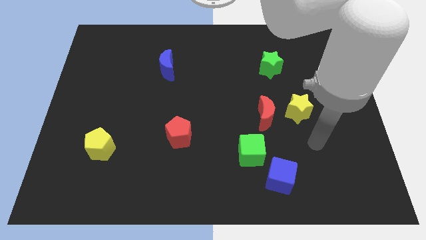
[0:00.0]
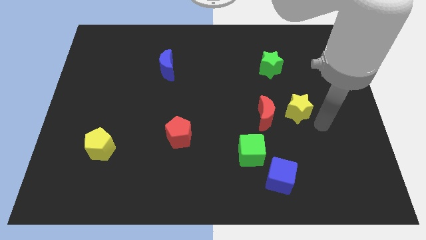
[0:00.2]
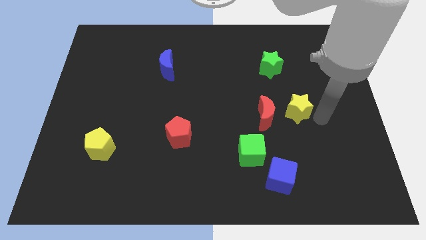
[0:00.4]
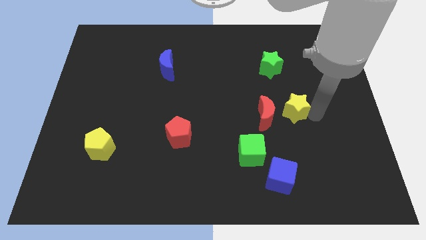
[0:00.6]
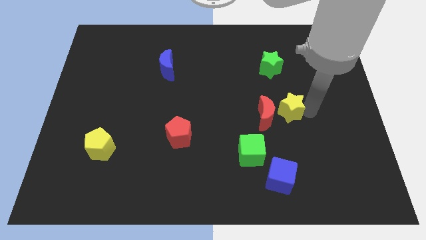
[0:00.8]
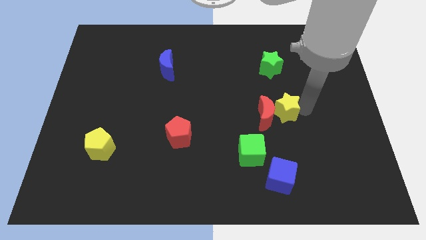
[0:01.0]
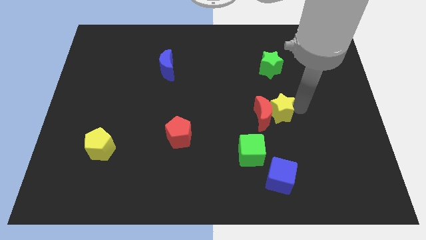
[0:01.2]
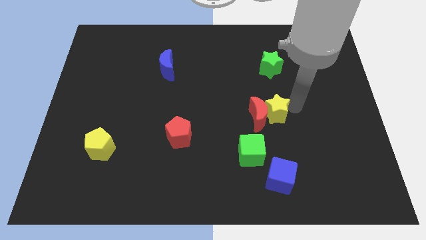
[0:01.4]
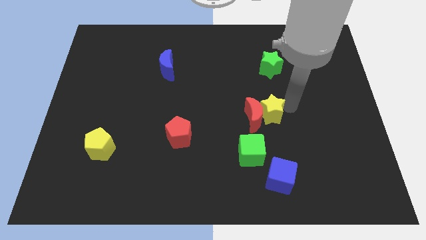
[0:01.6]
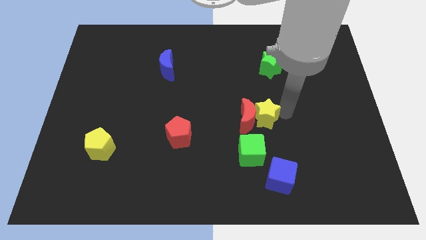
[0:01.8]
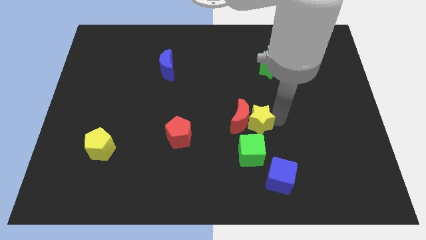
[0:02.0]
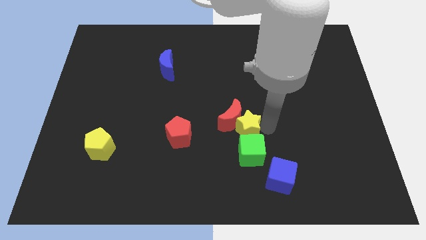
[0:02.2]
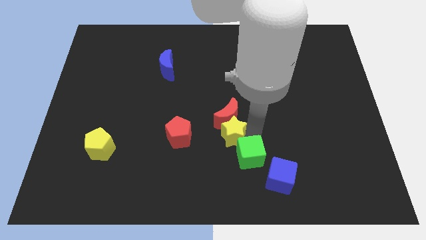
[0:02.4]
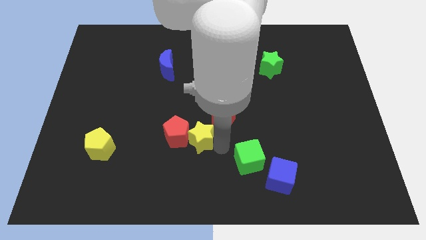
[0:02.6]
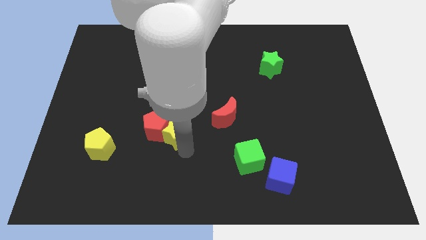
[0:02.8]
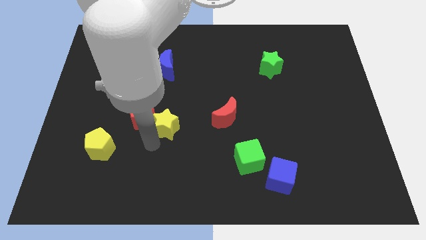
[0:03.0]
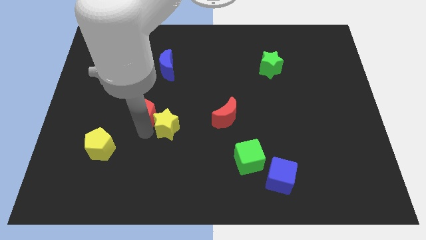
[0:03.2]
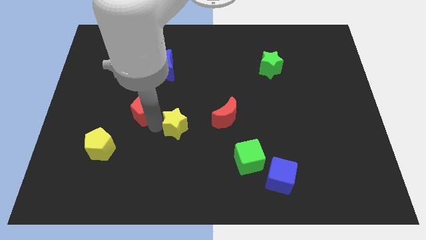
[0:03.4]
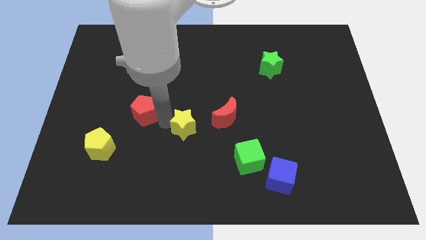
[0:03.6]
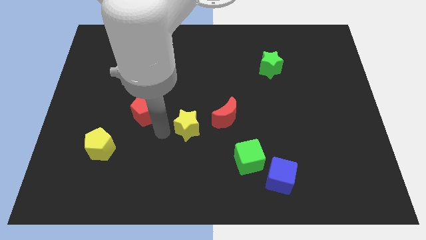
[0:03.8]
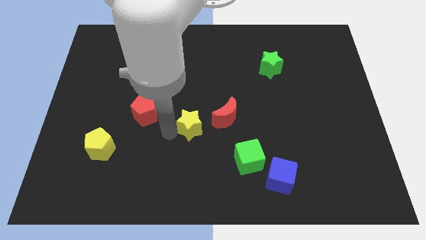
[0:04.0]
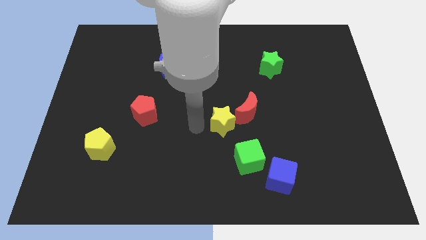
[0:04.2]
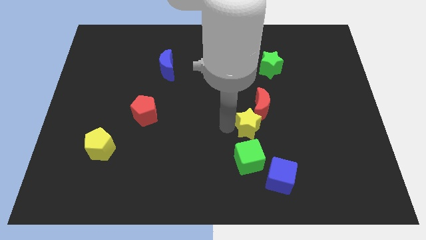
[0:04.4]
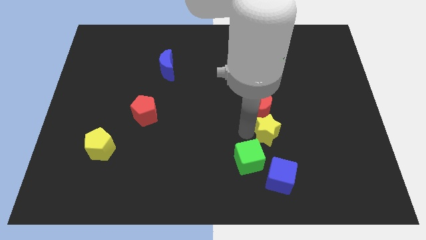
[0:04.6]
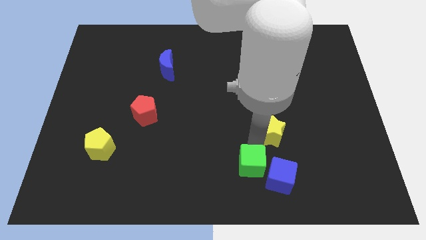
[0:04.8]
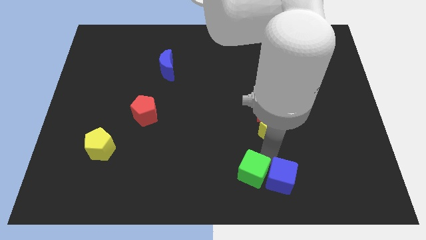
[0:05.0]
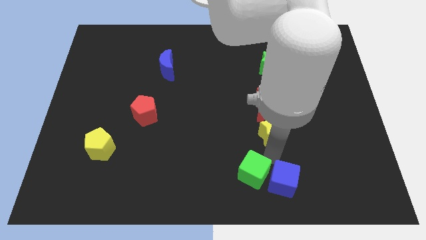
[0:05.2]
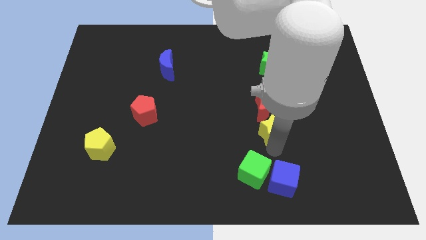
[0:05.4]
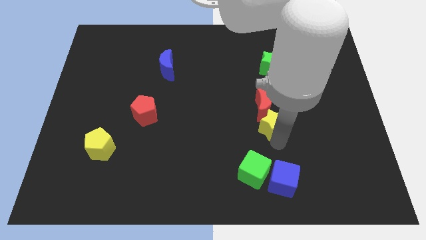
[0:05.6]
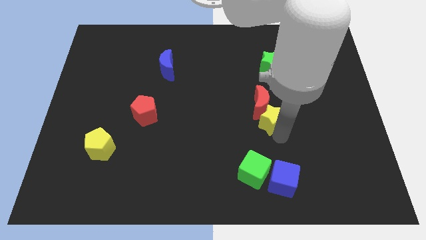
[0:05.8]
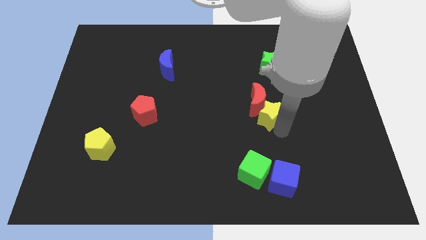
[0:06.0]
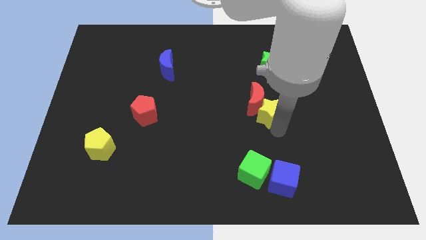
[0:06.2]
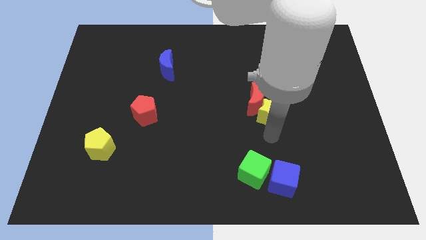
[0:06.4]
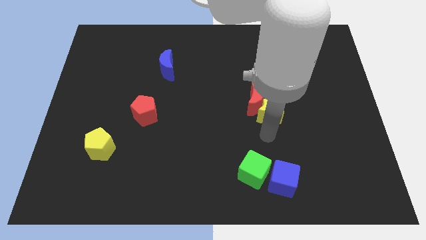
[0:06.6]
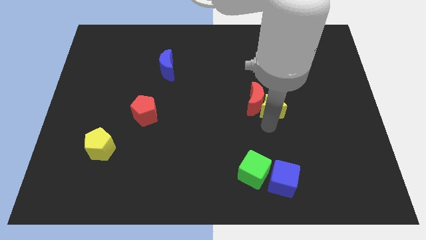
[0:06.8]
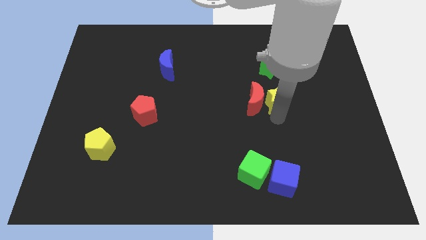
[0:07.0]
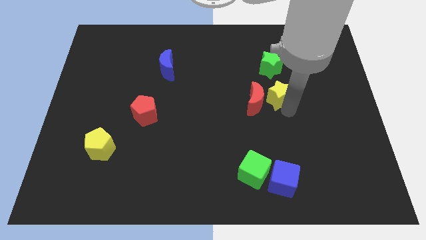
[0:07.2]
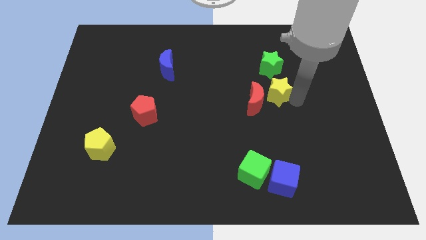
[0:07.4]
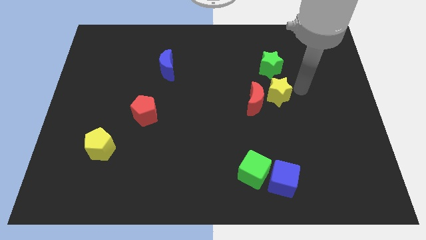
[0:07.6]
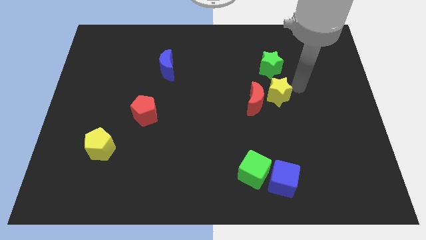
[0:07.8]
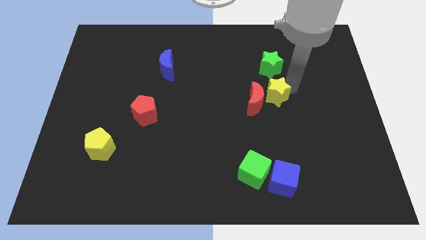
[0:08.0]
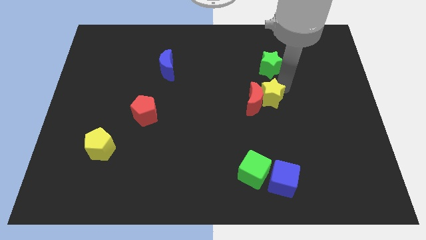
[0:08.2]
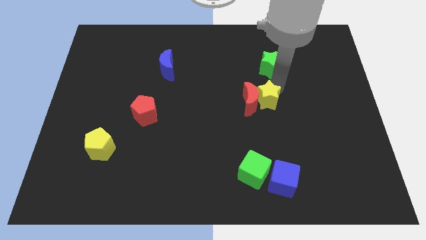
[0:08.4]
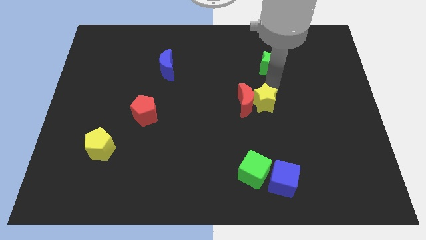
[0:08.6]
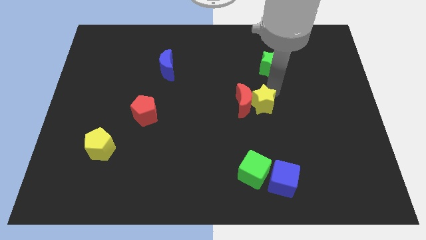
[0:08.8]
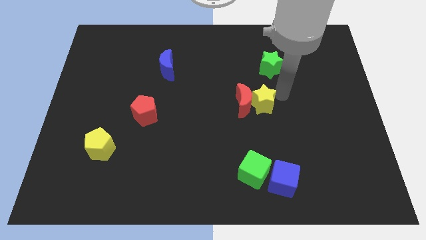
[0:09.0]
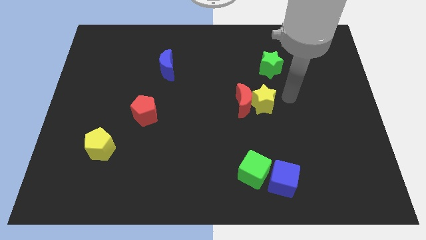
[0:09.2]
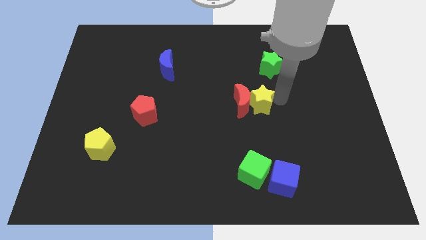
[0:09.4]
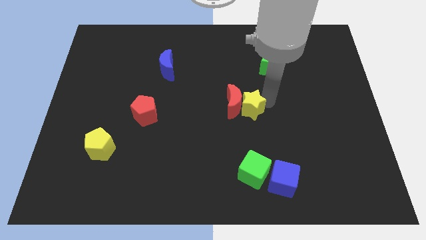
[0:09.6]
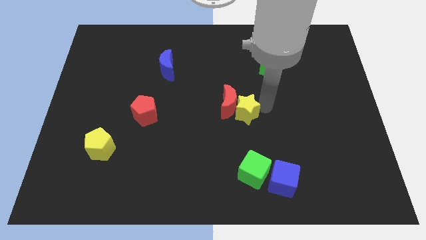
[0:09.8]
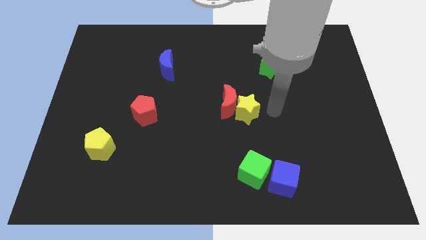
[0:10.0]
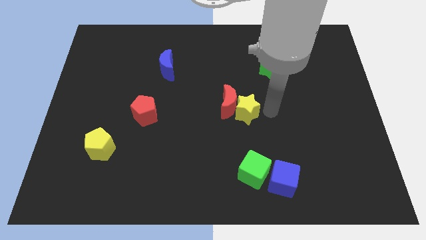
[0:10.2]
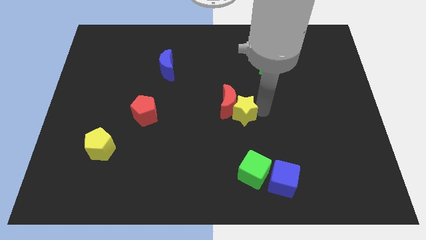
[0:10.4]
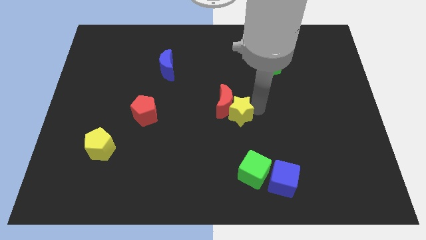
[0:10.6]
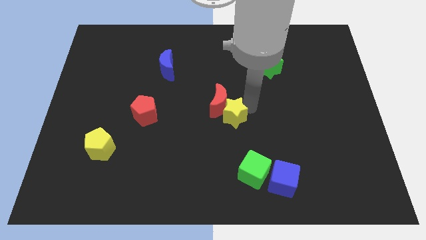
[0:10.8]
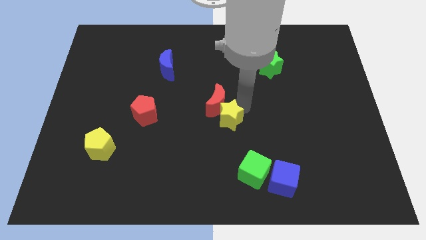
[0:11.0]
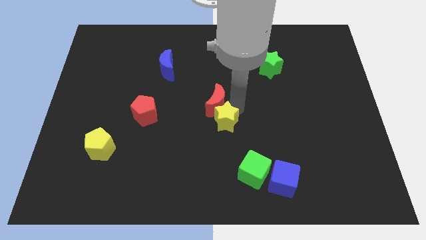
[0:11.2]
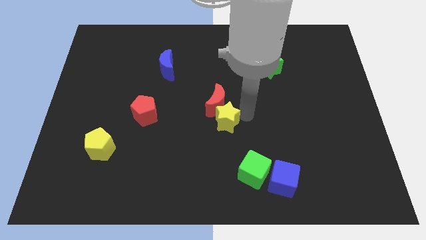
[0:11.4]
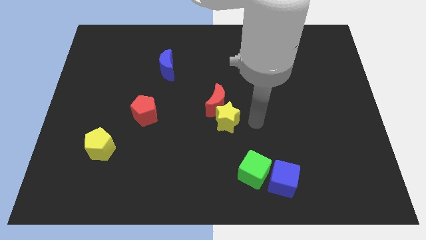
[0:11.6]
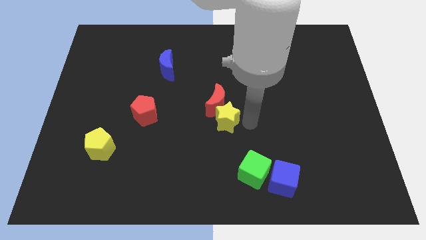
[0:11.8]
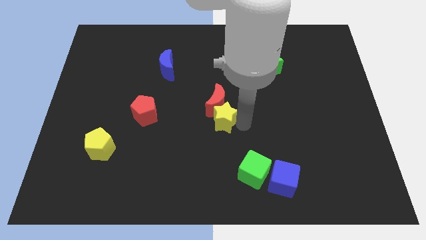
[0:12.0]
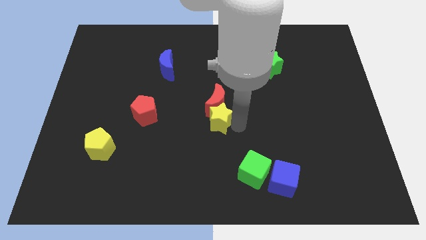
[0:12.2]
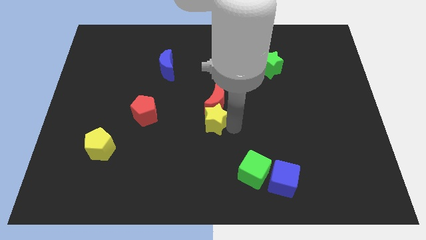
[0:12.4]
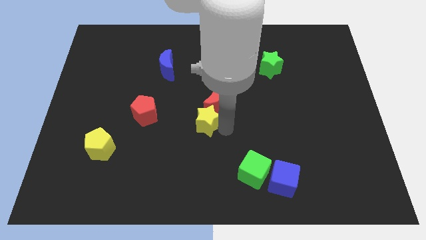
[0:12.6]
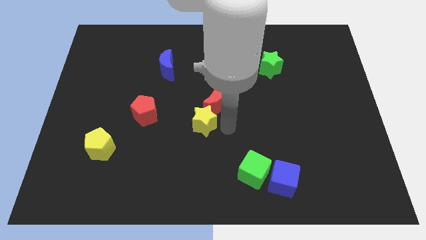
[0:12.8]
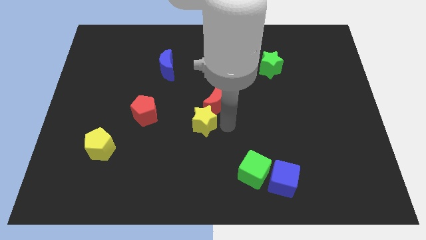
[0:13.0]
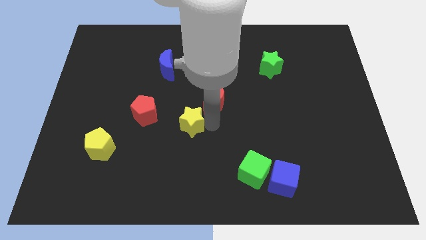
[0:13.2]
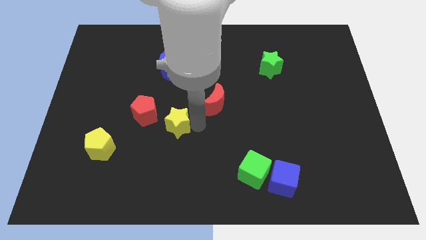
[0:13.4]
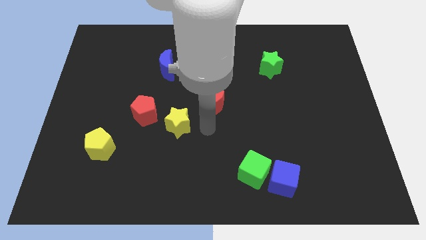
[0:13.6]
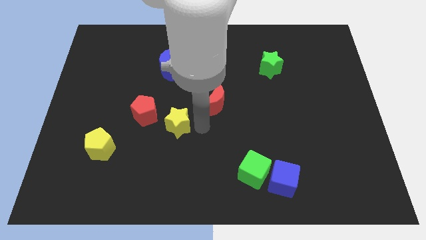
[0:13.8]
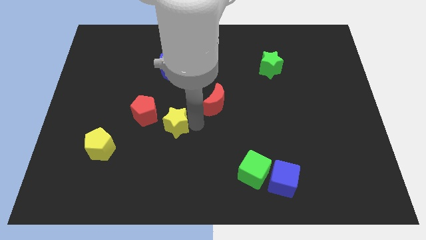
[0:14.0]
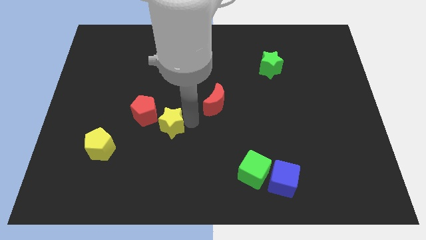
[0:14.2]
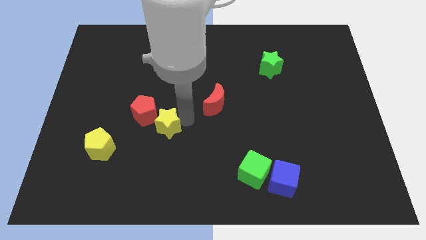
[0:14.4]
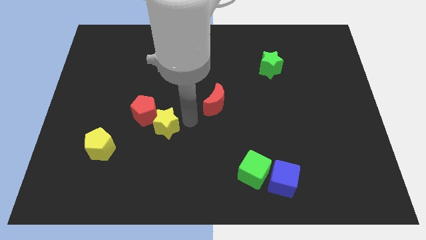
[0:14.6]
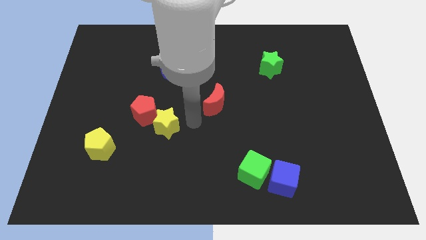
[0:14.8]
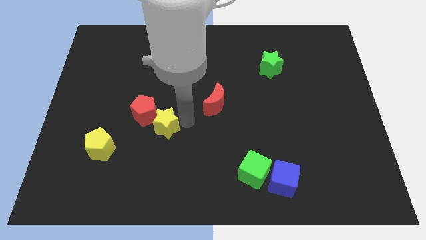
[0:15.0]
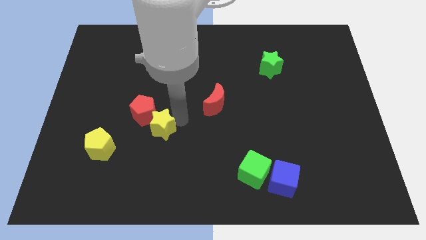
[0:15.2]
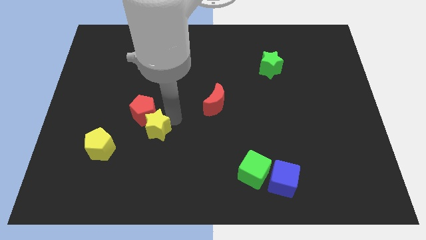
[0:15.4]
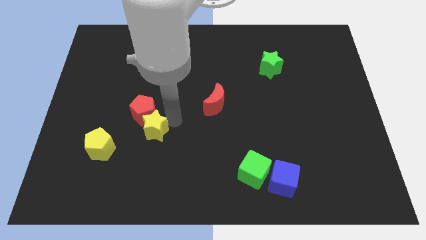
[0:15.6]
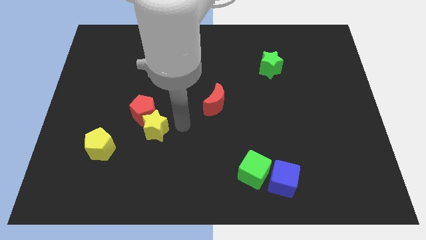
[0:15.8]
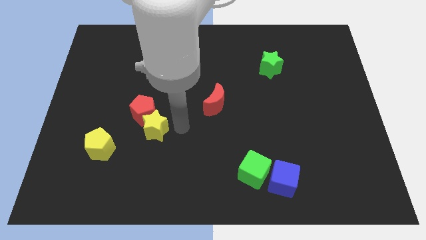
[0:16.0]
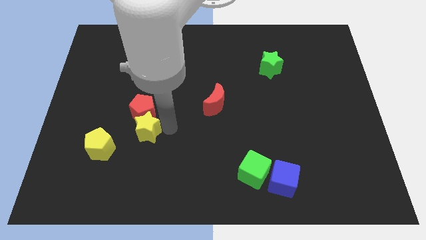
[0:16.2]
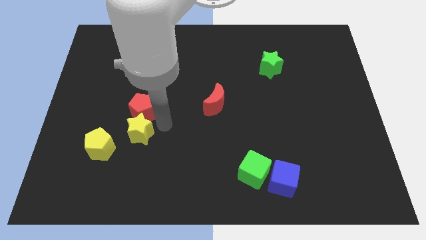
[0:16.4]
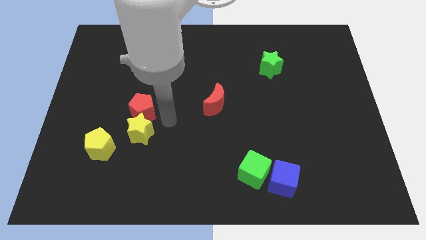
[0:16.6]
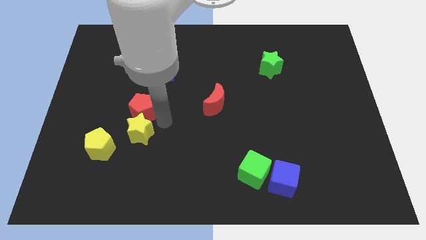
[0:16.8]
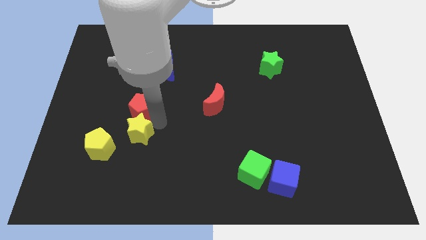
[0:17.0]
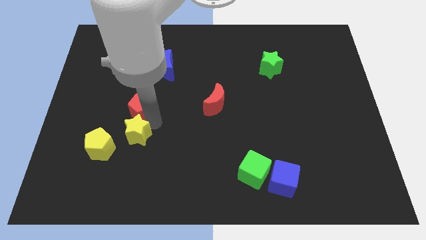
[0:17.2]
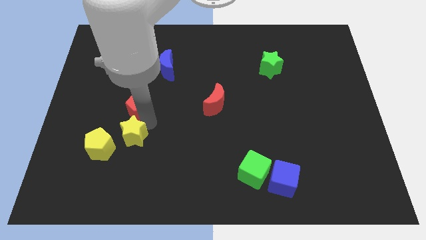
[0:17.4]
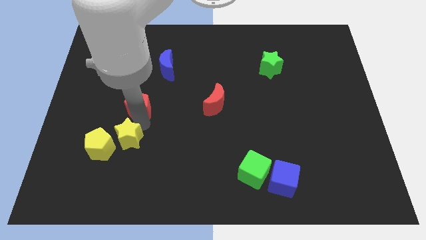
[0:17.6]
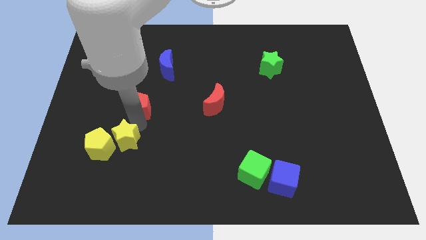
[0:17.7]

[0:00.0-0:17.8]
push the yellow star to the yellow pentagon
